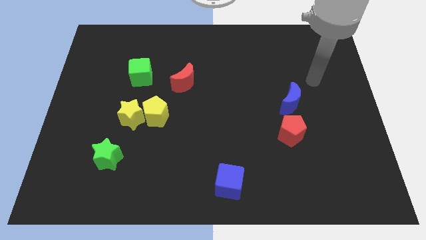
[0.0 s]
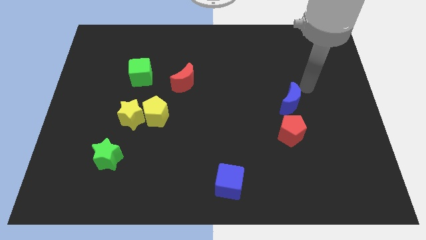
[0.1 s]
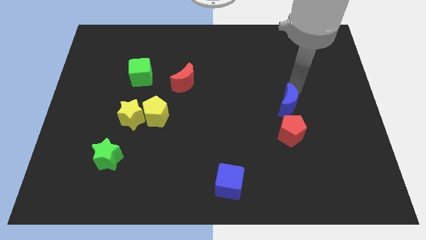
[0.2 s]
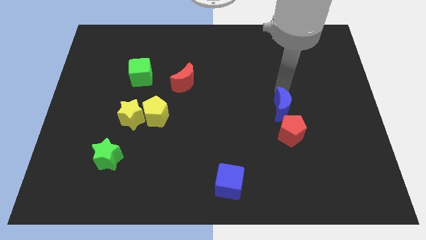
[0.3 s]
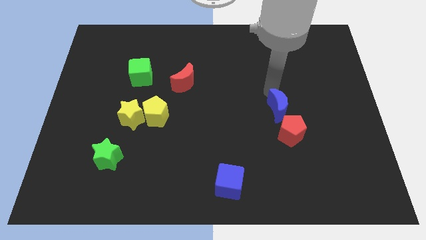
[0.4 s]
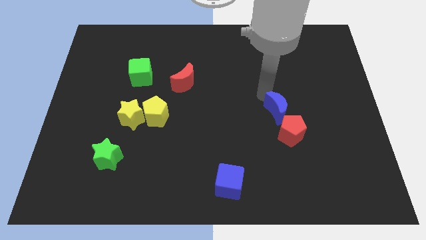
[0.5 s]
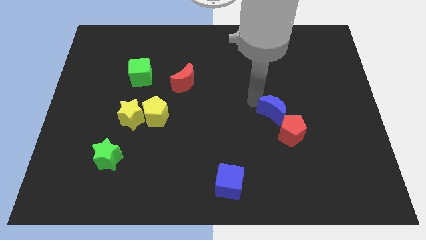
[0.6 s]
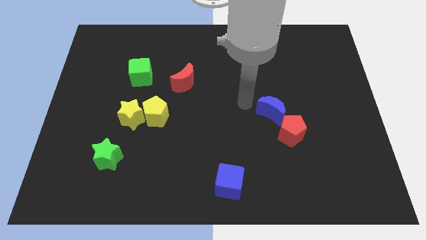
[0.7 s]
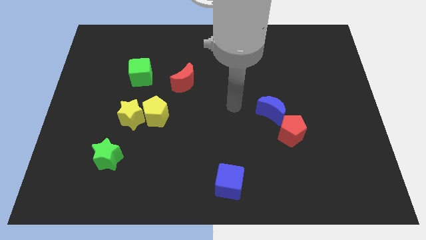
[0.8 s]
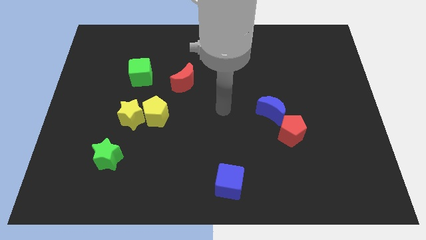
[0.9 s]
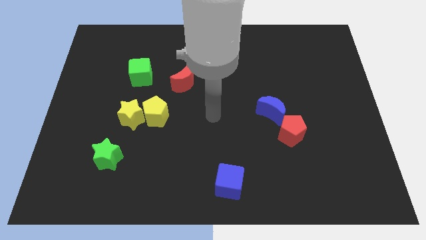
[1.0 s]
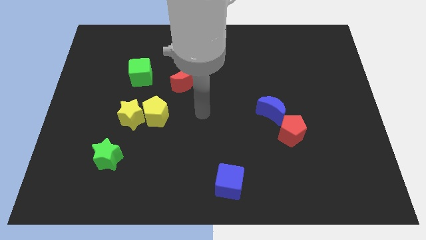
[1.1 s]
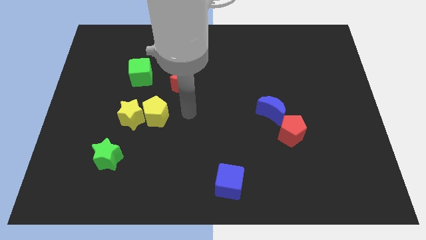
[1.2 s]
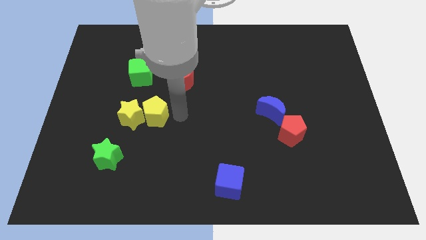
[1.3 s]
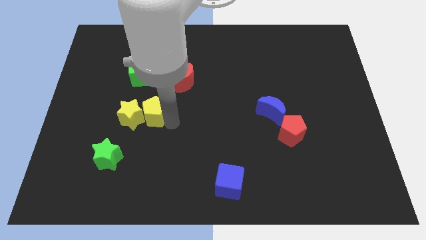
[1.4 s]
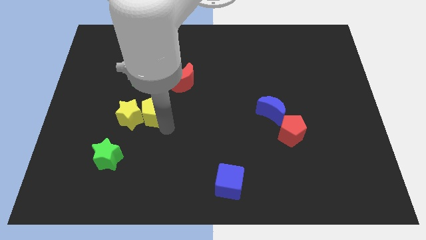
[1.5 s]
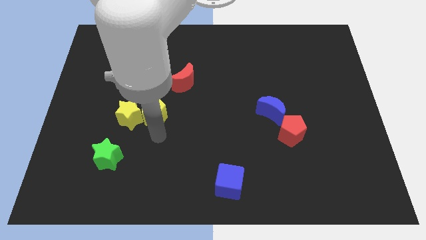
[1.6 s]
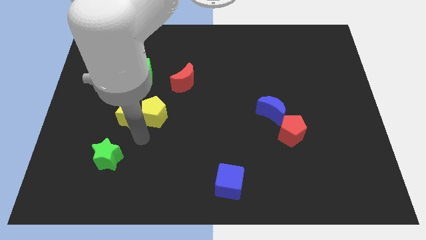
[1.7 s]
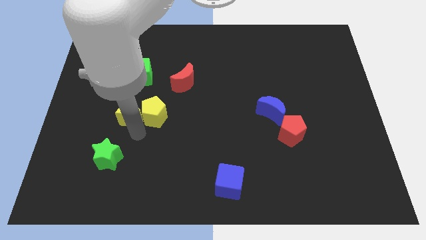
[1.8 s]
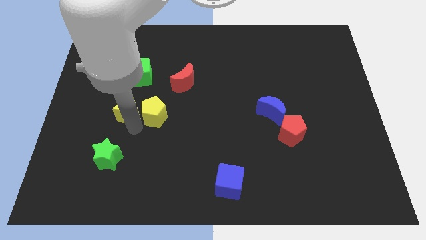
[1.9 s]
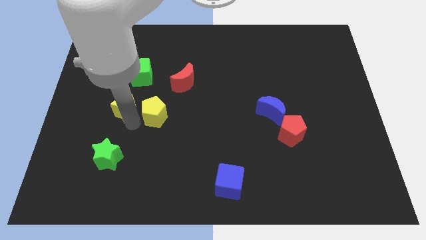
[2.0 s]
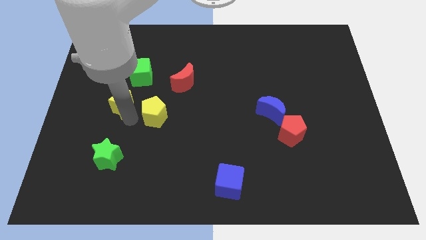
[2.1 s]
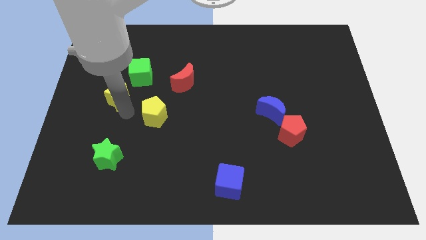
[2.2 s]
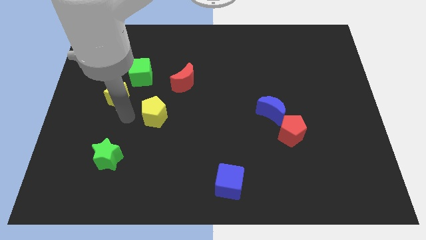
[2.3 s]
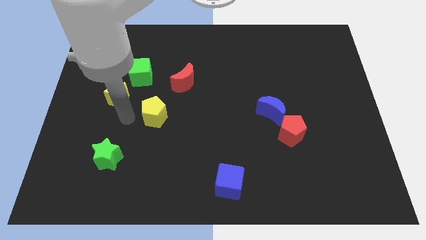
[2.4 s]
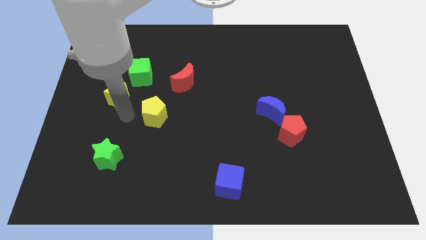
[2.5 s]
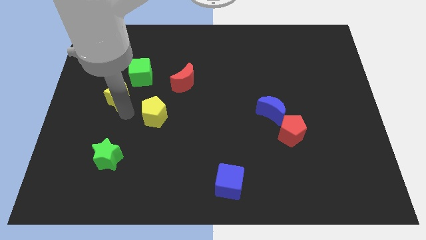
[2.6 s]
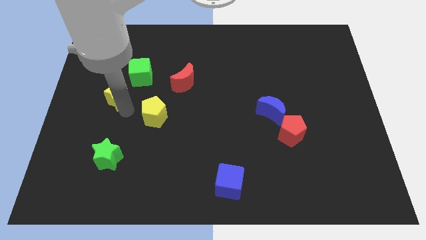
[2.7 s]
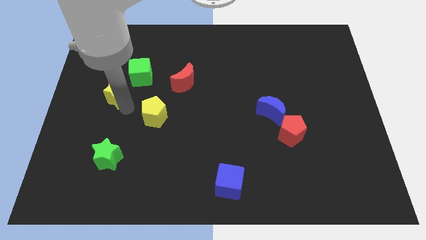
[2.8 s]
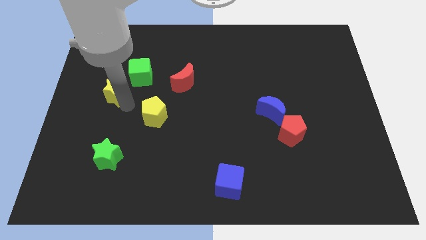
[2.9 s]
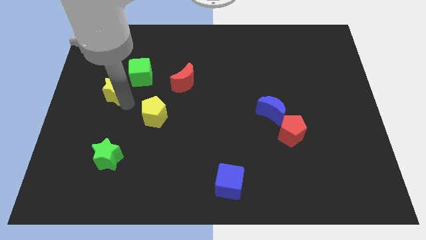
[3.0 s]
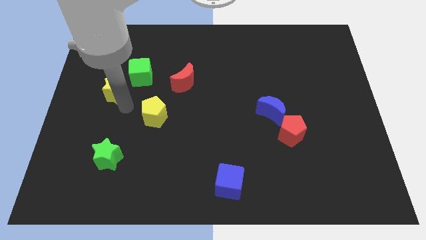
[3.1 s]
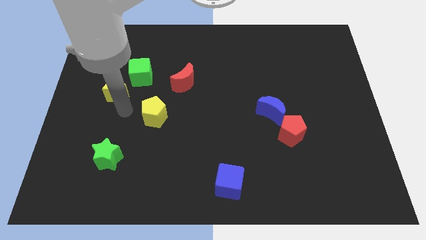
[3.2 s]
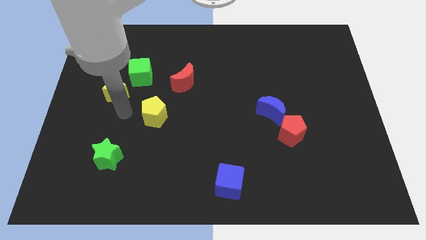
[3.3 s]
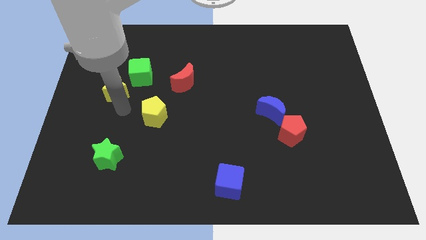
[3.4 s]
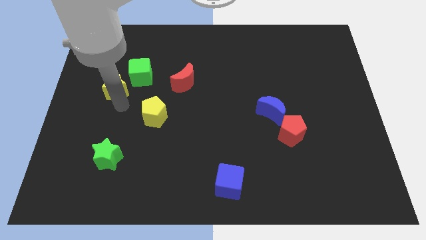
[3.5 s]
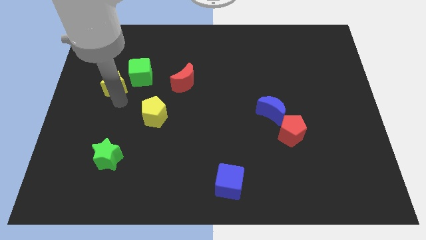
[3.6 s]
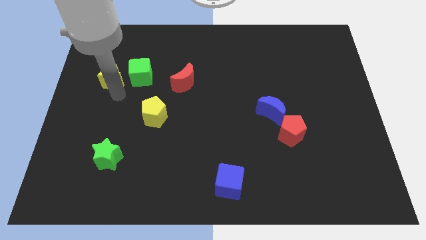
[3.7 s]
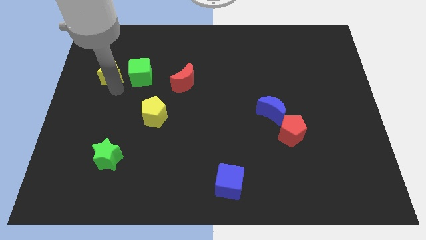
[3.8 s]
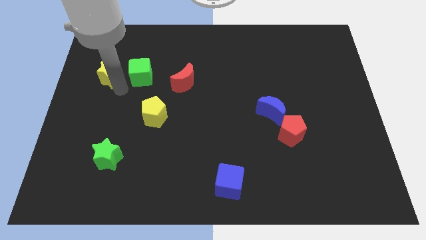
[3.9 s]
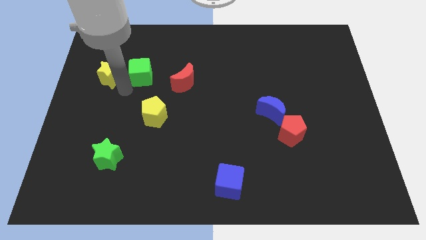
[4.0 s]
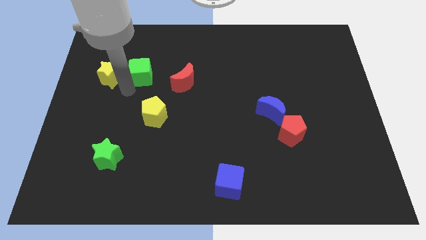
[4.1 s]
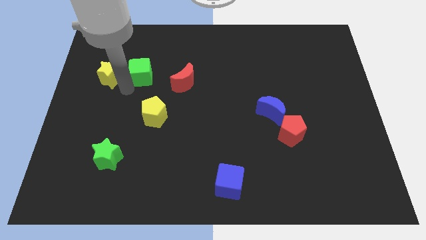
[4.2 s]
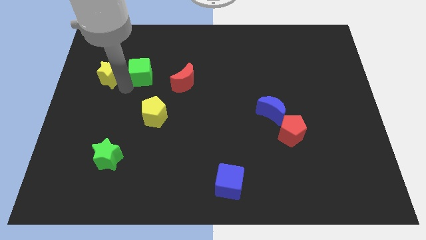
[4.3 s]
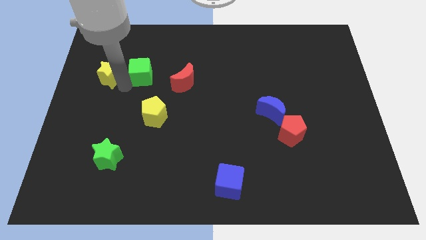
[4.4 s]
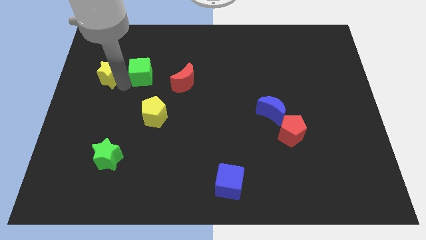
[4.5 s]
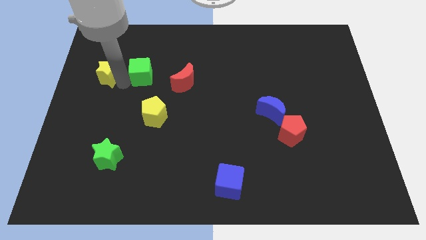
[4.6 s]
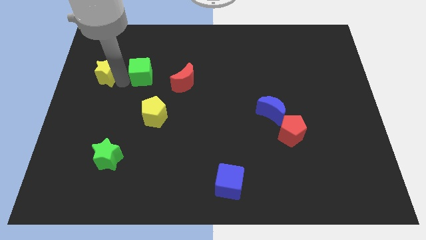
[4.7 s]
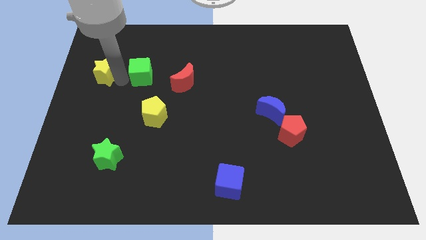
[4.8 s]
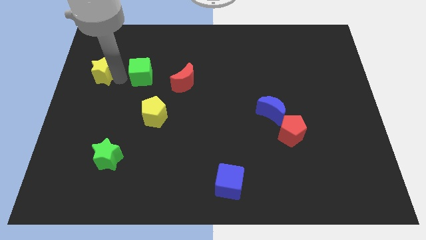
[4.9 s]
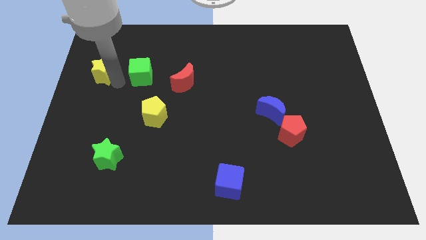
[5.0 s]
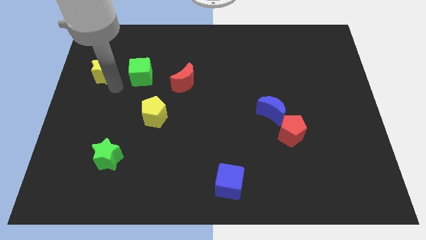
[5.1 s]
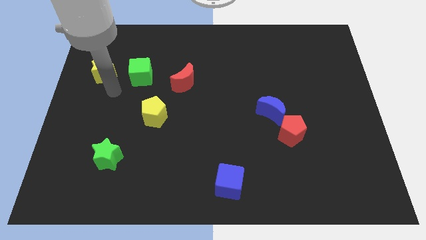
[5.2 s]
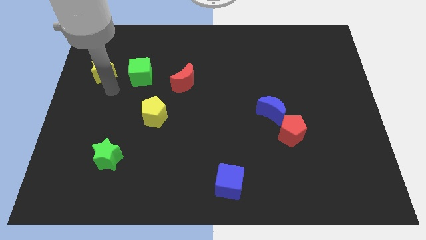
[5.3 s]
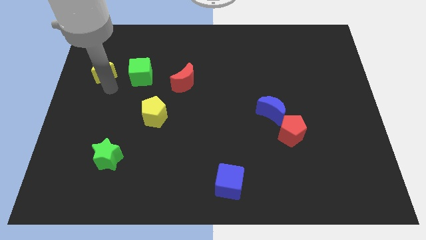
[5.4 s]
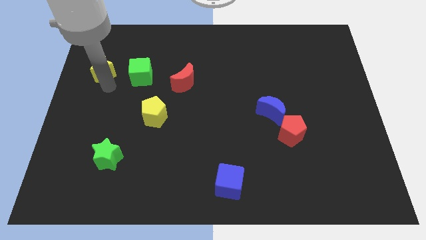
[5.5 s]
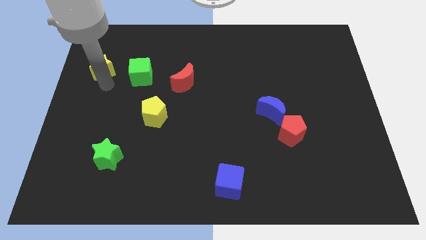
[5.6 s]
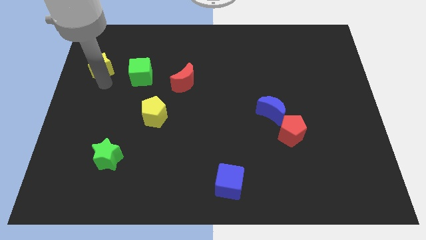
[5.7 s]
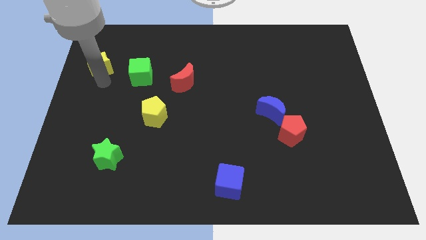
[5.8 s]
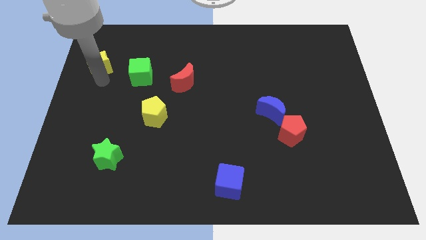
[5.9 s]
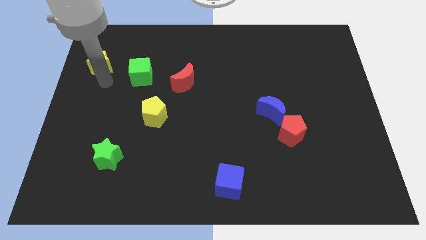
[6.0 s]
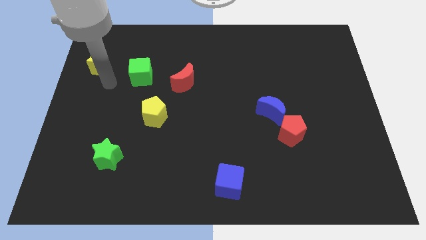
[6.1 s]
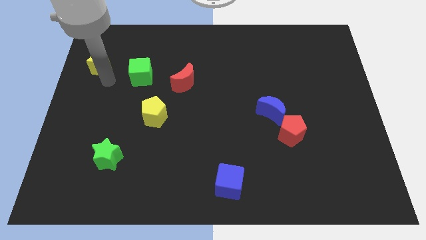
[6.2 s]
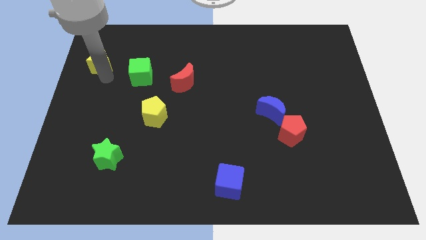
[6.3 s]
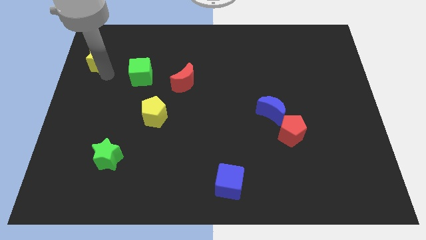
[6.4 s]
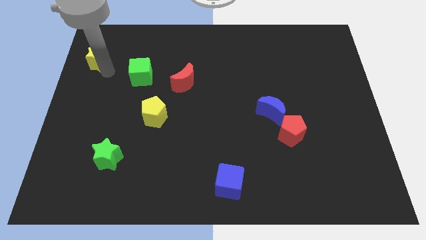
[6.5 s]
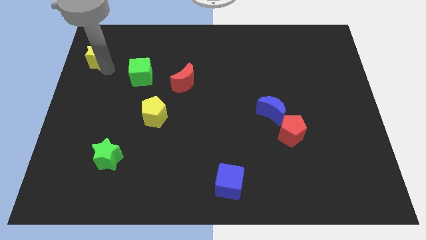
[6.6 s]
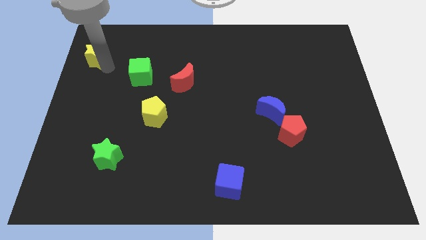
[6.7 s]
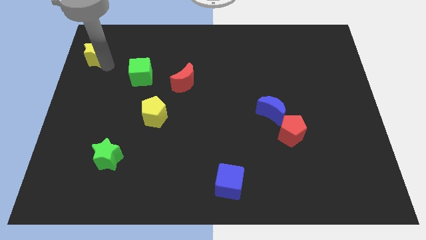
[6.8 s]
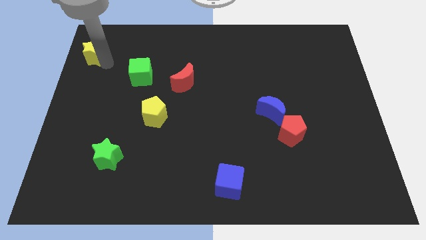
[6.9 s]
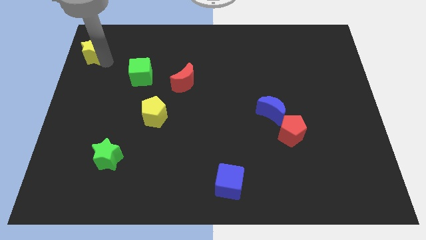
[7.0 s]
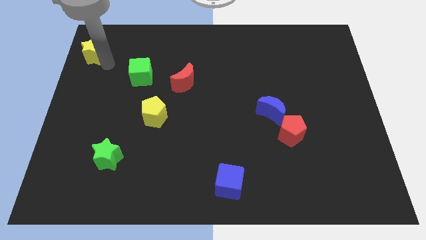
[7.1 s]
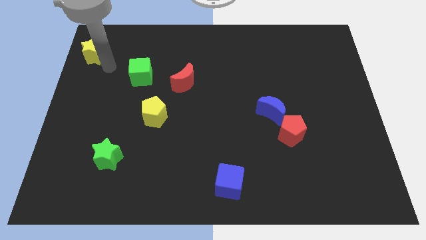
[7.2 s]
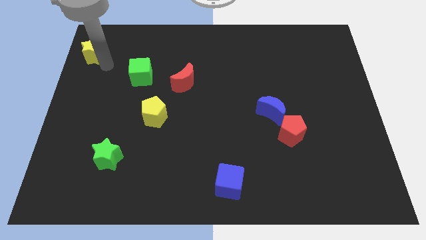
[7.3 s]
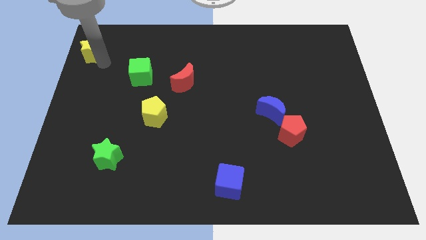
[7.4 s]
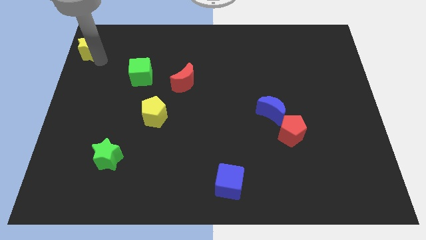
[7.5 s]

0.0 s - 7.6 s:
slide the yellow star to the top left of the board
